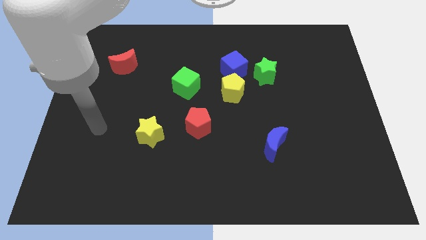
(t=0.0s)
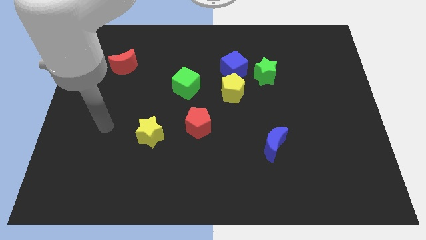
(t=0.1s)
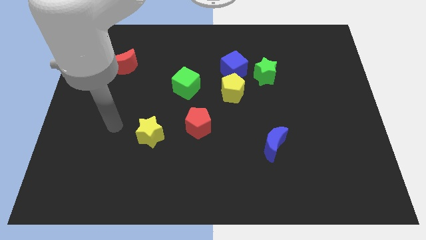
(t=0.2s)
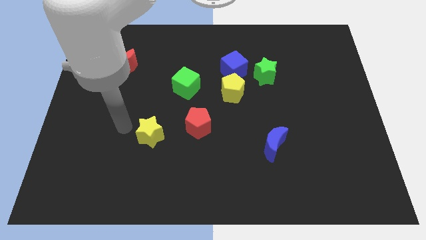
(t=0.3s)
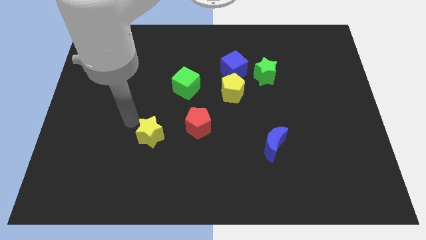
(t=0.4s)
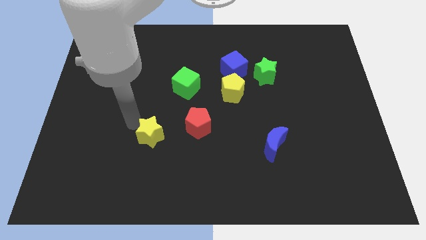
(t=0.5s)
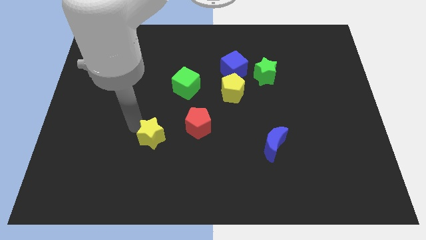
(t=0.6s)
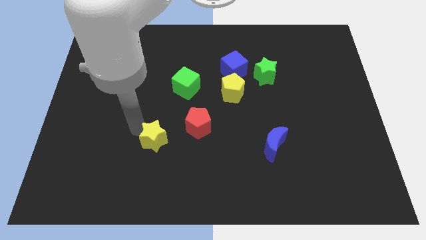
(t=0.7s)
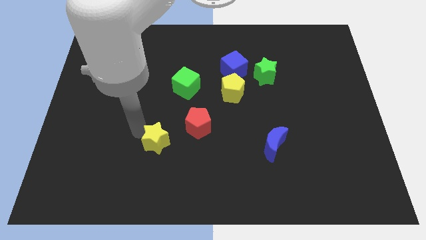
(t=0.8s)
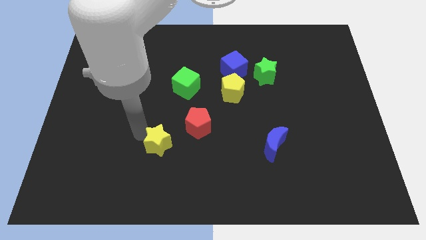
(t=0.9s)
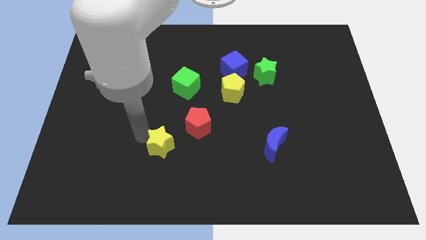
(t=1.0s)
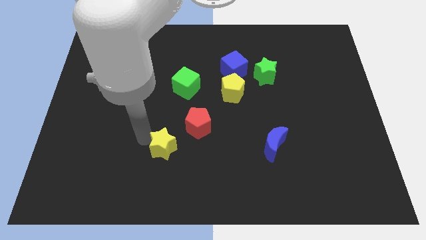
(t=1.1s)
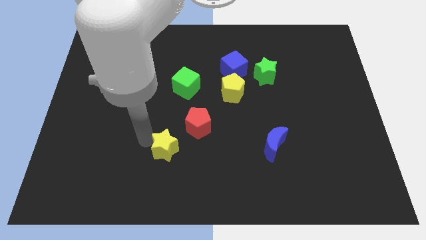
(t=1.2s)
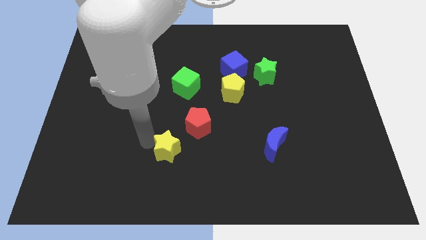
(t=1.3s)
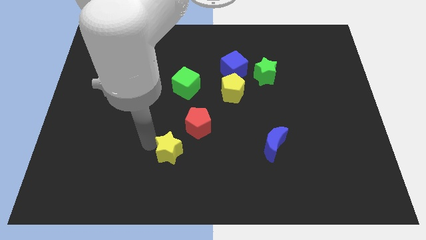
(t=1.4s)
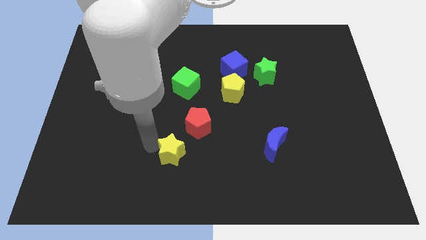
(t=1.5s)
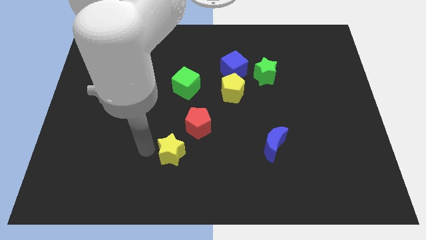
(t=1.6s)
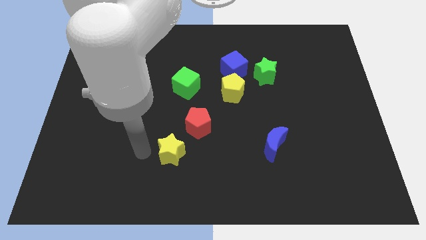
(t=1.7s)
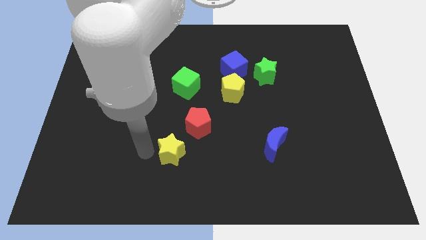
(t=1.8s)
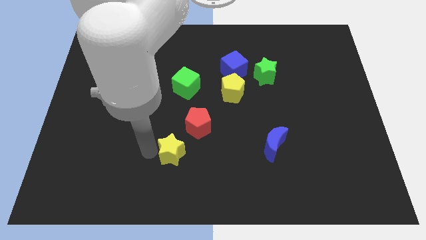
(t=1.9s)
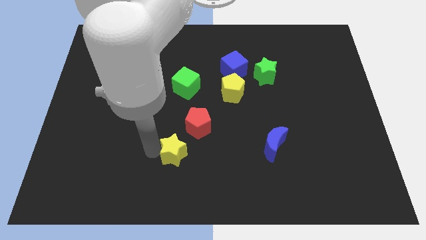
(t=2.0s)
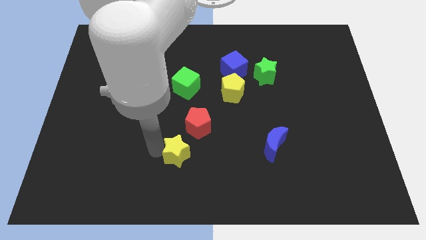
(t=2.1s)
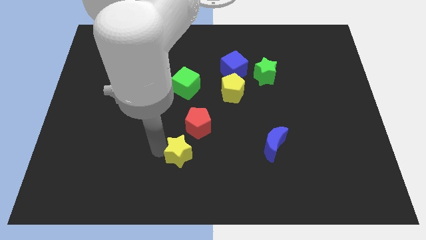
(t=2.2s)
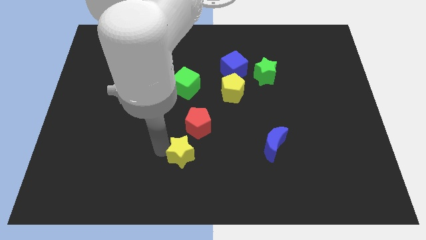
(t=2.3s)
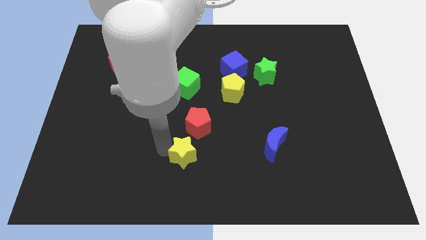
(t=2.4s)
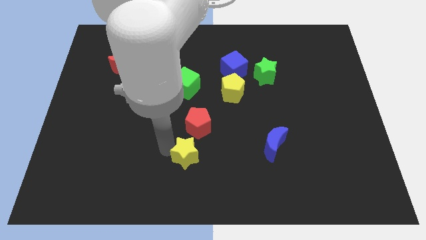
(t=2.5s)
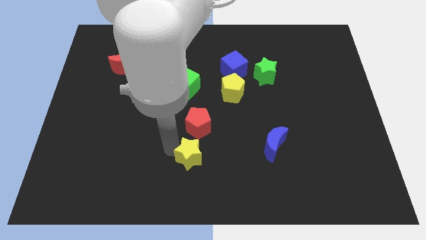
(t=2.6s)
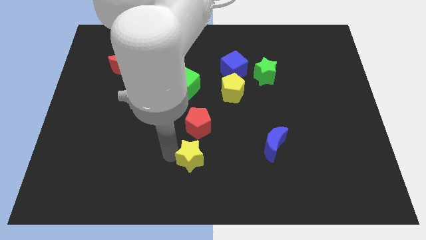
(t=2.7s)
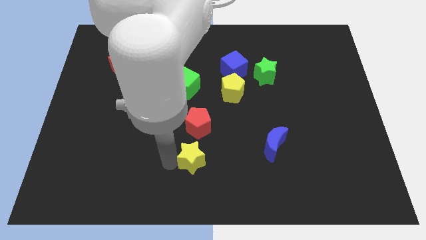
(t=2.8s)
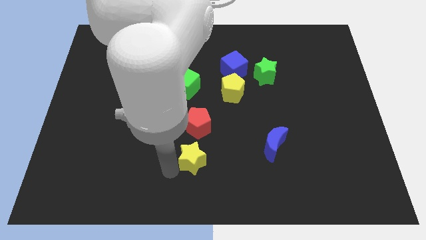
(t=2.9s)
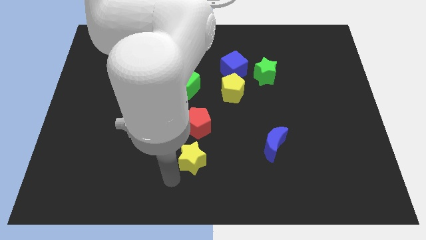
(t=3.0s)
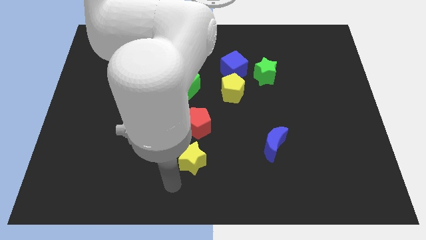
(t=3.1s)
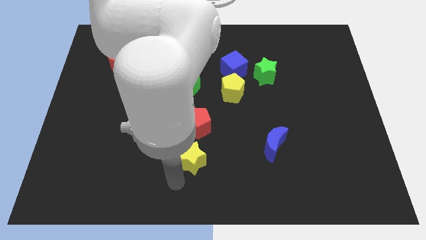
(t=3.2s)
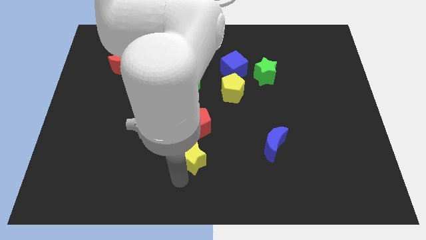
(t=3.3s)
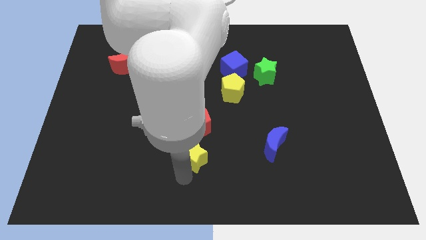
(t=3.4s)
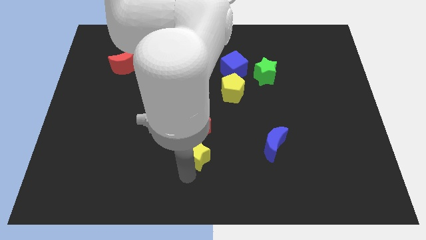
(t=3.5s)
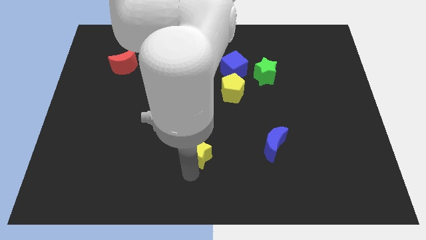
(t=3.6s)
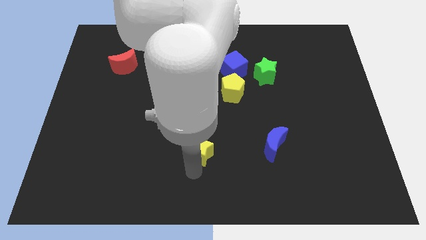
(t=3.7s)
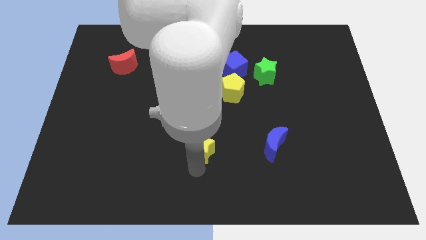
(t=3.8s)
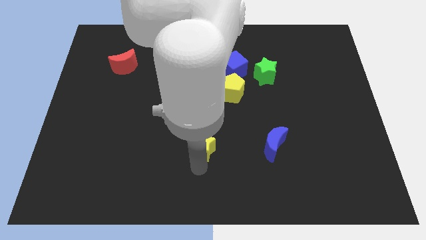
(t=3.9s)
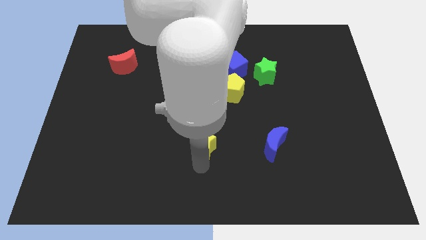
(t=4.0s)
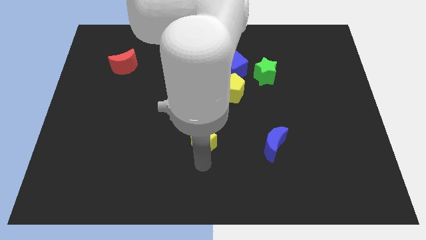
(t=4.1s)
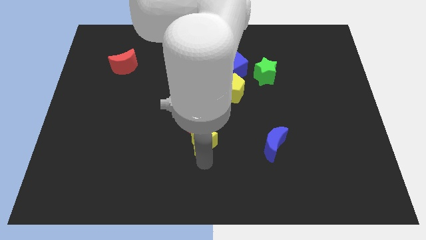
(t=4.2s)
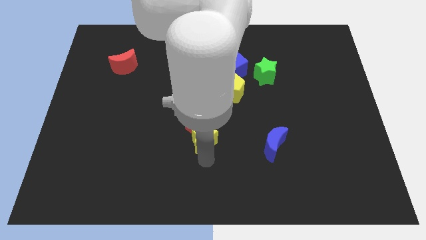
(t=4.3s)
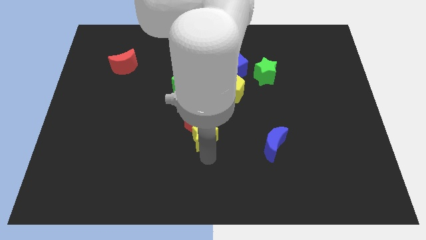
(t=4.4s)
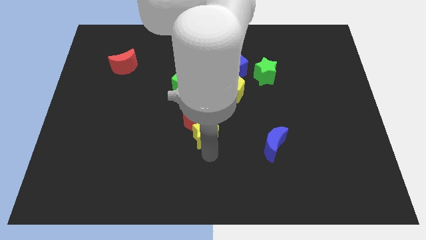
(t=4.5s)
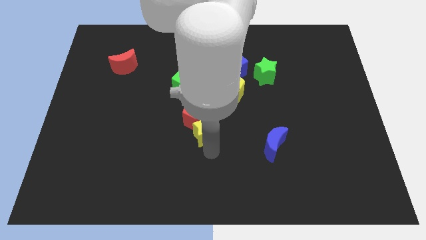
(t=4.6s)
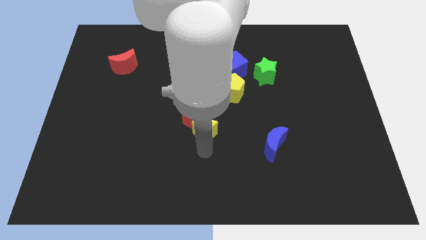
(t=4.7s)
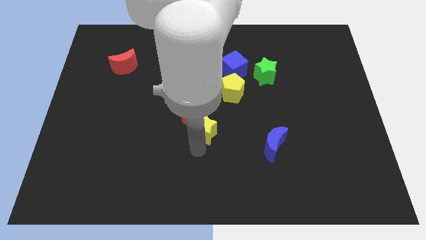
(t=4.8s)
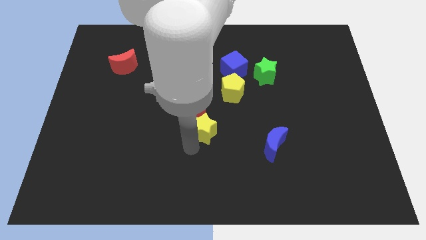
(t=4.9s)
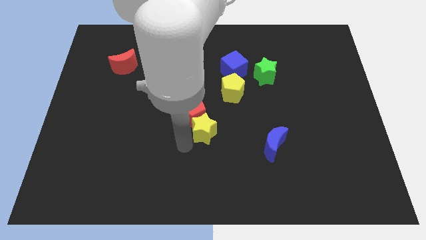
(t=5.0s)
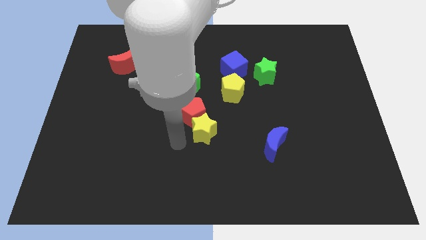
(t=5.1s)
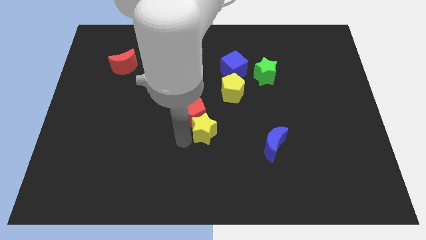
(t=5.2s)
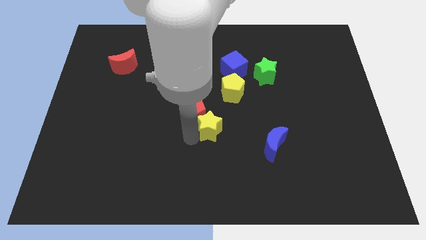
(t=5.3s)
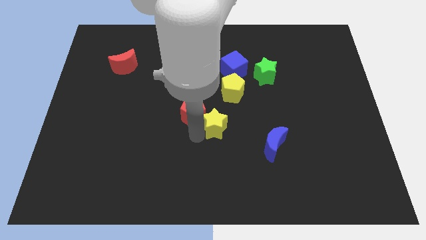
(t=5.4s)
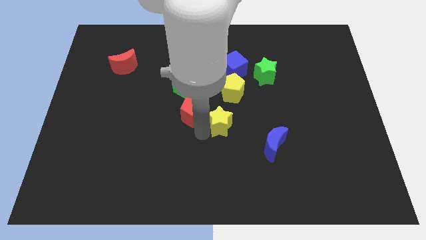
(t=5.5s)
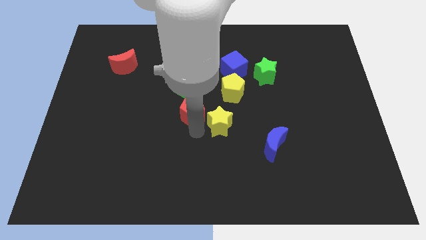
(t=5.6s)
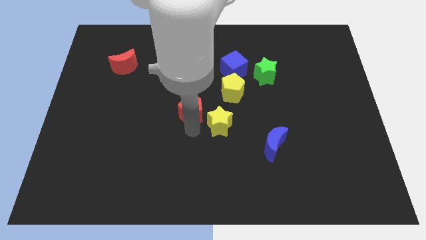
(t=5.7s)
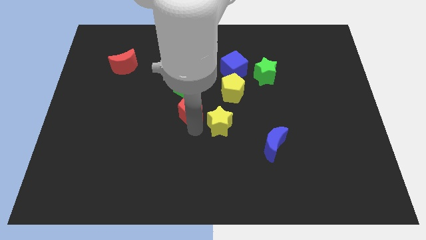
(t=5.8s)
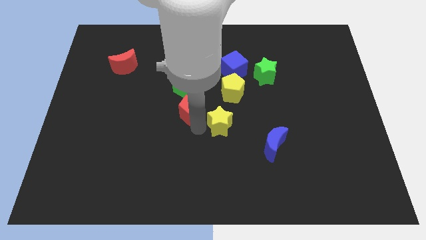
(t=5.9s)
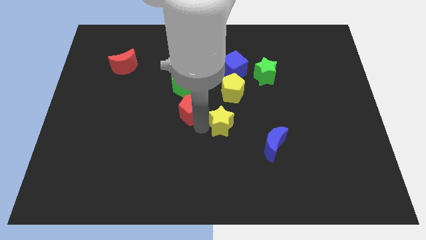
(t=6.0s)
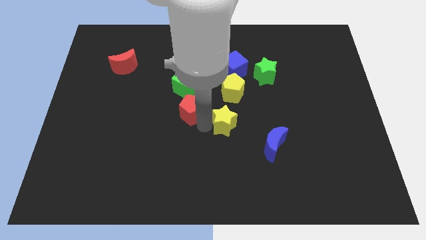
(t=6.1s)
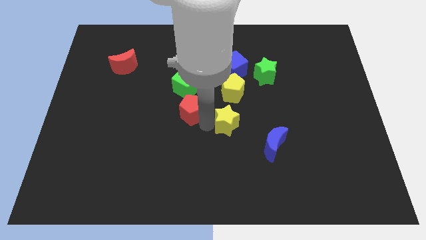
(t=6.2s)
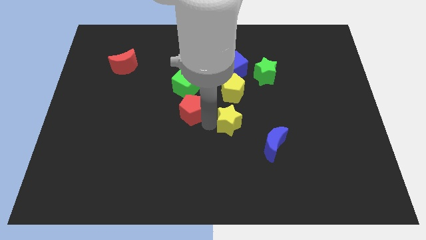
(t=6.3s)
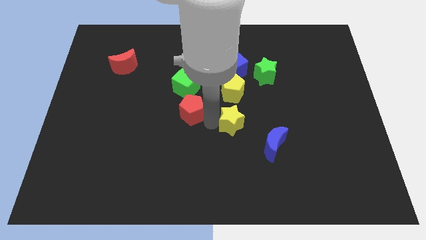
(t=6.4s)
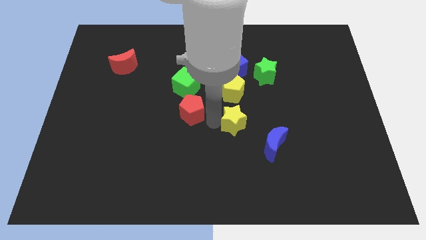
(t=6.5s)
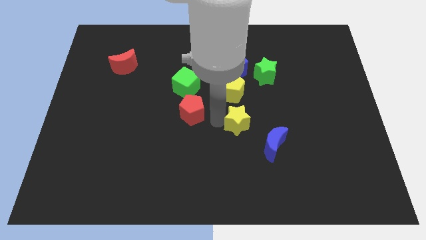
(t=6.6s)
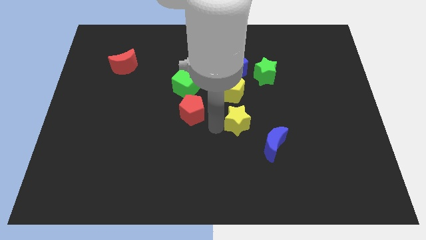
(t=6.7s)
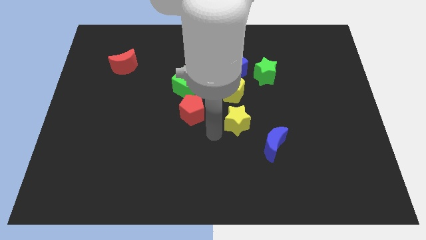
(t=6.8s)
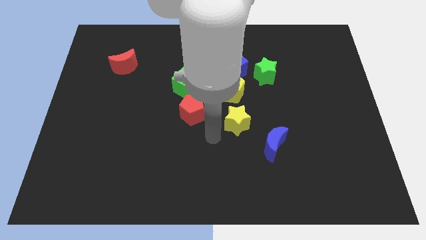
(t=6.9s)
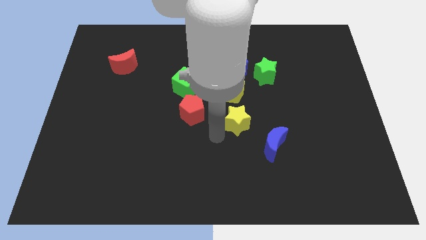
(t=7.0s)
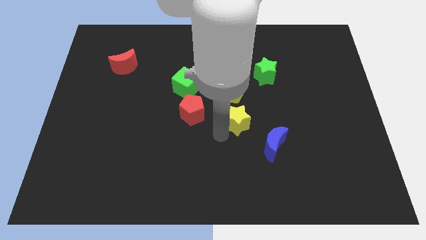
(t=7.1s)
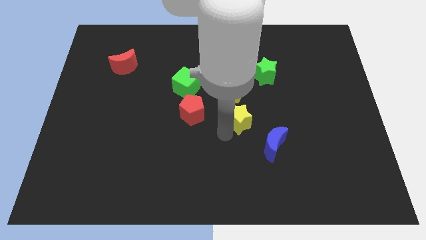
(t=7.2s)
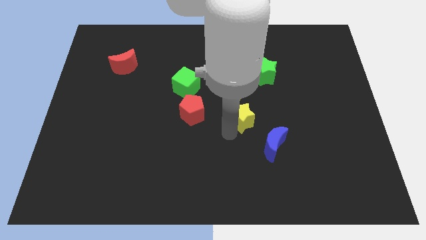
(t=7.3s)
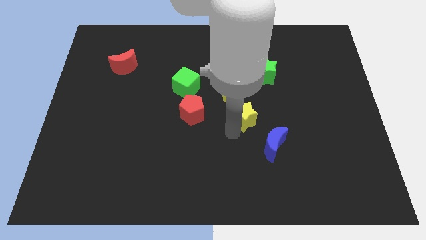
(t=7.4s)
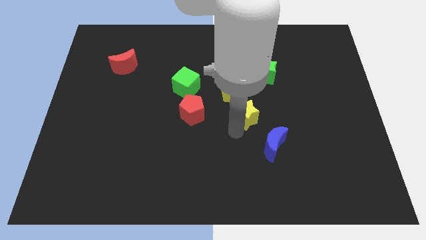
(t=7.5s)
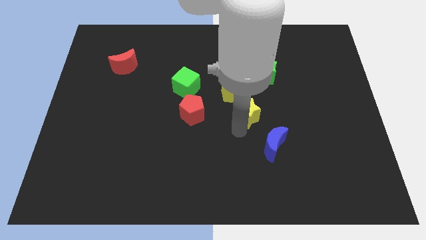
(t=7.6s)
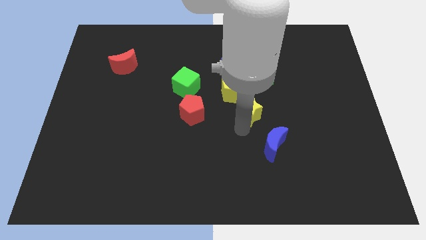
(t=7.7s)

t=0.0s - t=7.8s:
slide the yellow star to the bottom of the green star
